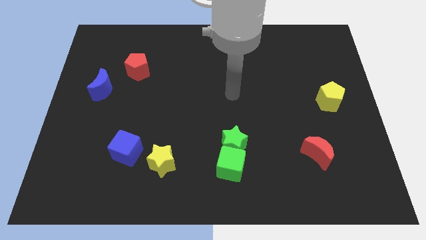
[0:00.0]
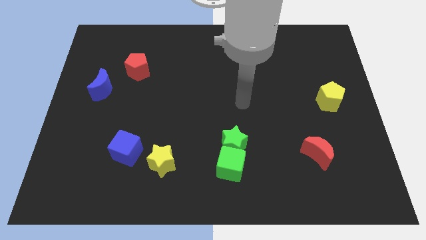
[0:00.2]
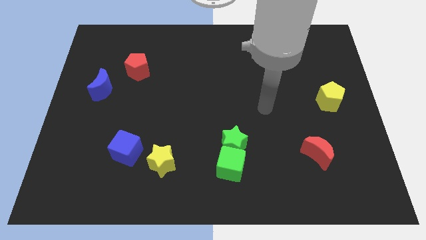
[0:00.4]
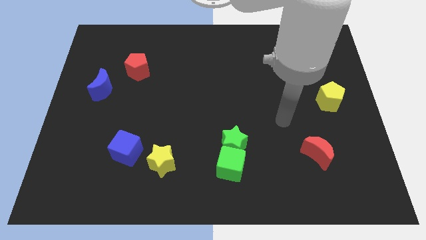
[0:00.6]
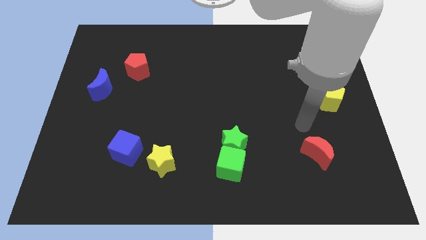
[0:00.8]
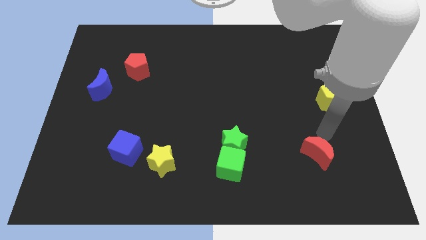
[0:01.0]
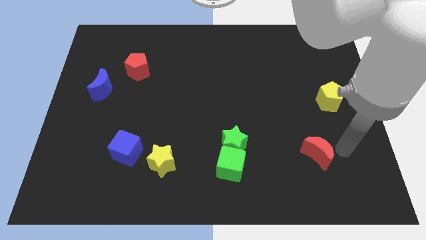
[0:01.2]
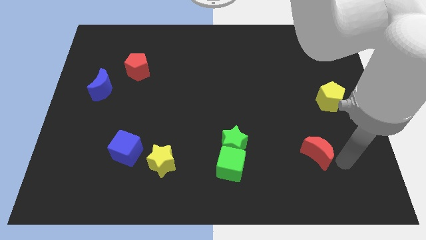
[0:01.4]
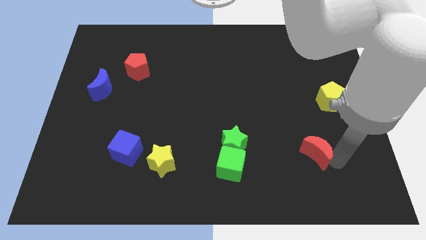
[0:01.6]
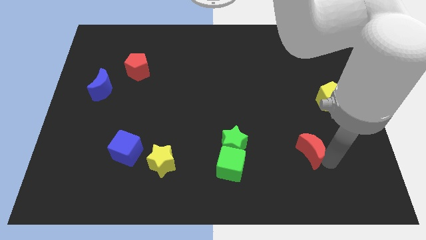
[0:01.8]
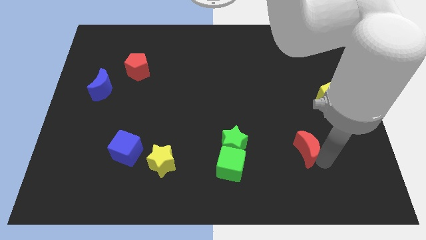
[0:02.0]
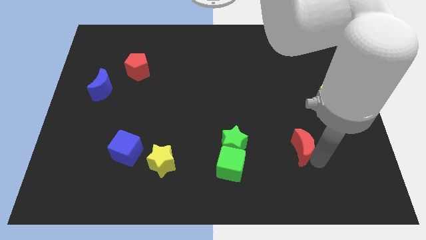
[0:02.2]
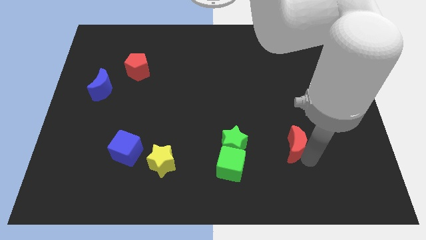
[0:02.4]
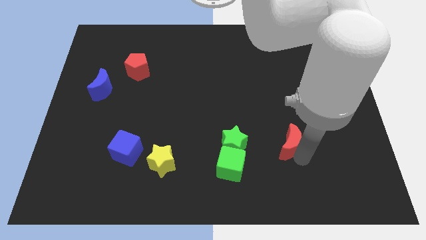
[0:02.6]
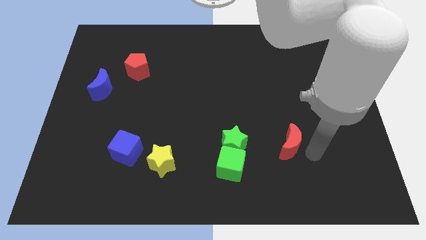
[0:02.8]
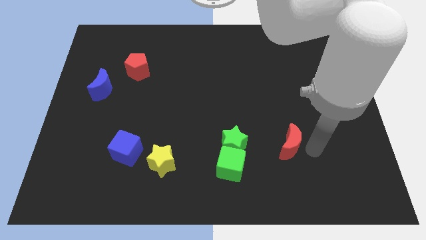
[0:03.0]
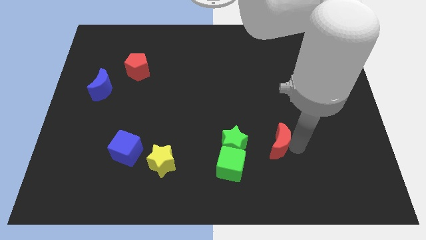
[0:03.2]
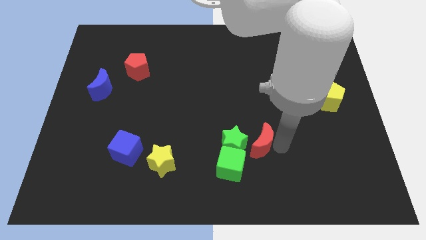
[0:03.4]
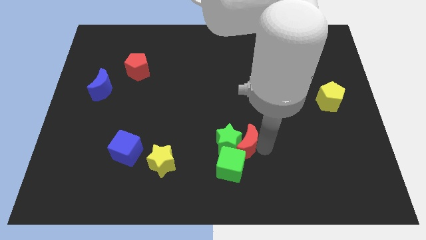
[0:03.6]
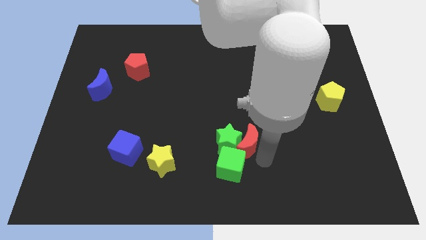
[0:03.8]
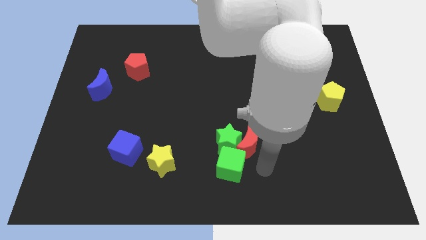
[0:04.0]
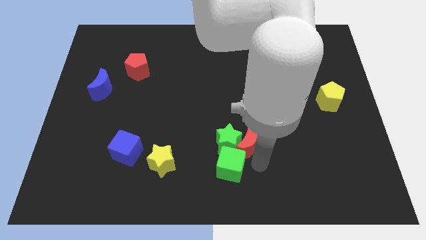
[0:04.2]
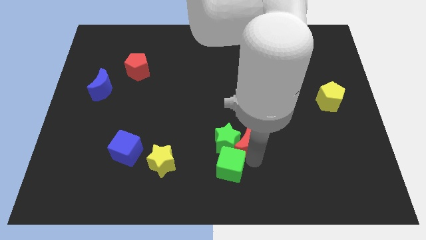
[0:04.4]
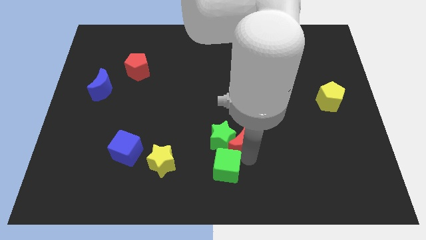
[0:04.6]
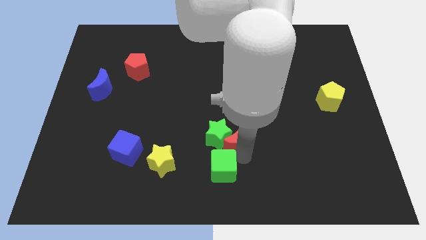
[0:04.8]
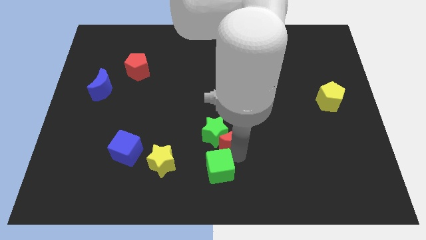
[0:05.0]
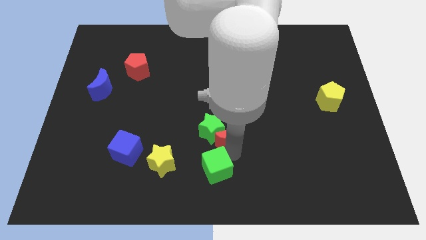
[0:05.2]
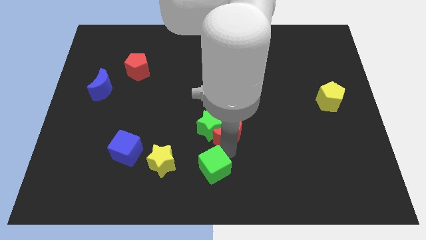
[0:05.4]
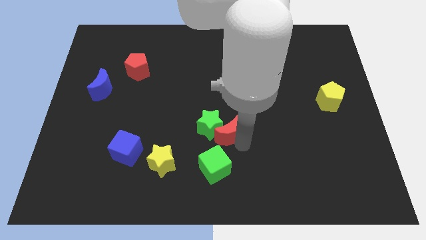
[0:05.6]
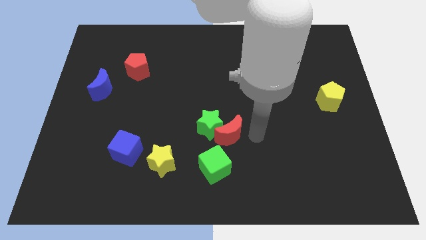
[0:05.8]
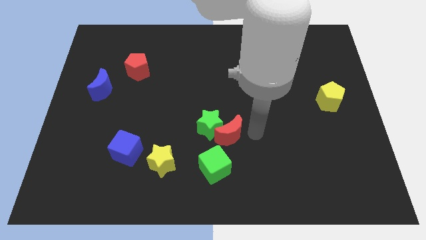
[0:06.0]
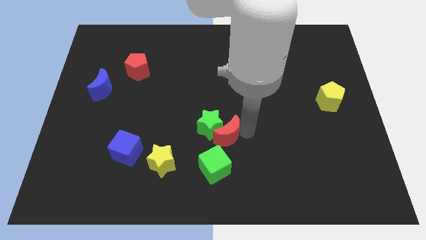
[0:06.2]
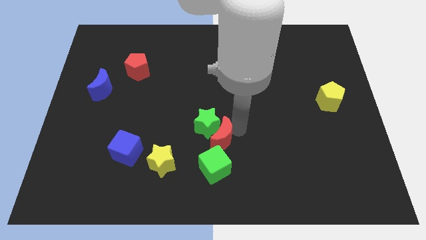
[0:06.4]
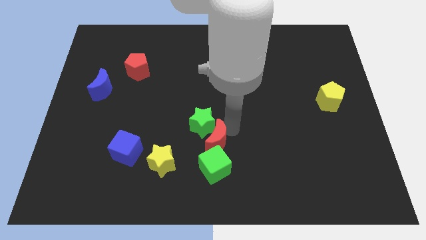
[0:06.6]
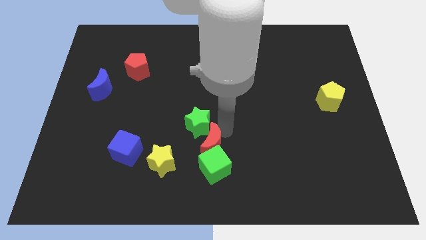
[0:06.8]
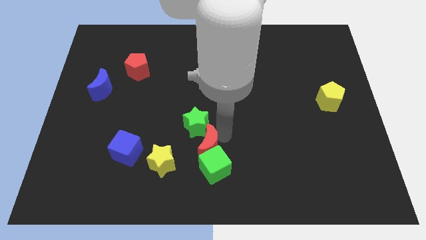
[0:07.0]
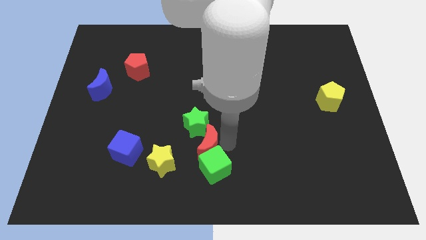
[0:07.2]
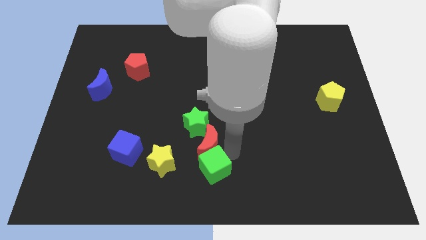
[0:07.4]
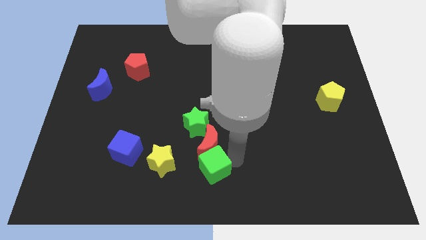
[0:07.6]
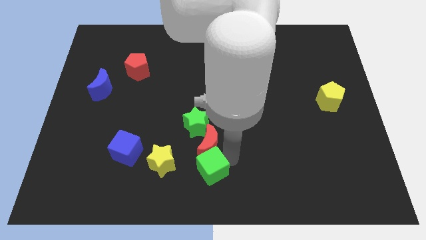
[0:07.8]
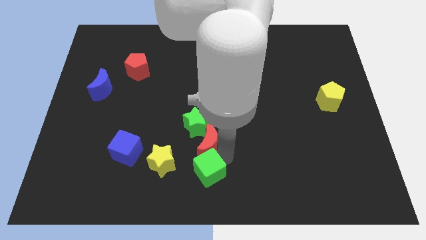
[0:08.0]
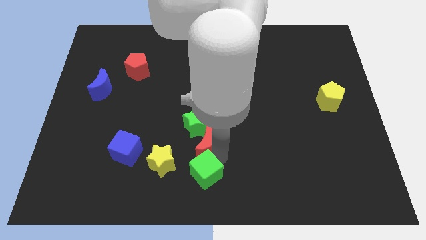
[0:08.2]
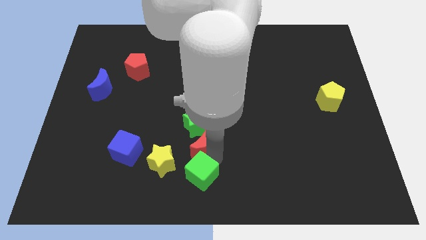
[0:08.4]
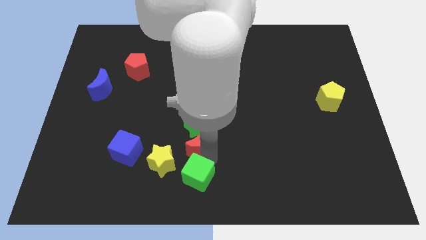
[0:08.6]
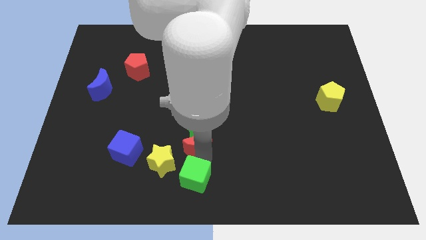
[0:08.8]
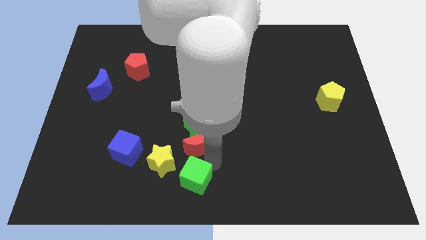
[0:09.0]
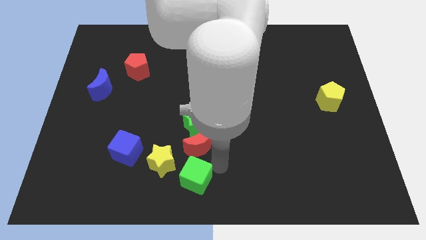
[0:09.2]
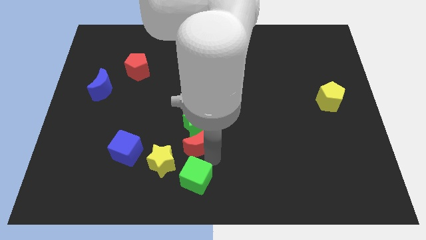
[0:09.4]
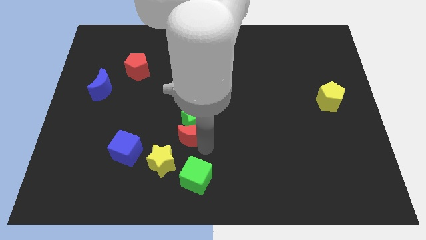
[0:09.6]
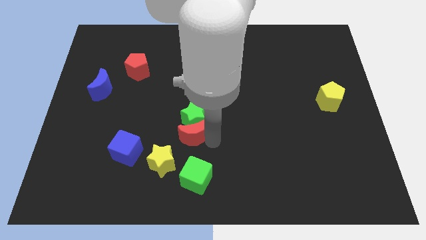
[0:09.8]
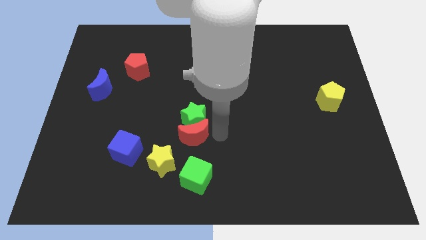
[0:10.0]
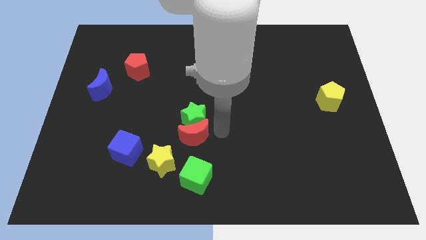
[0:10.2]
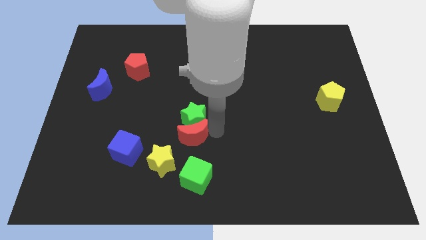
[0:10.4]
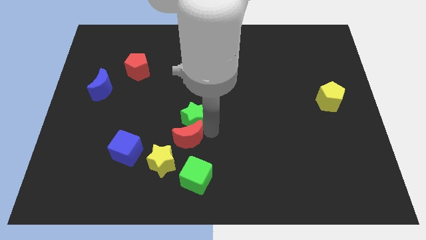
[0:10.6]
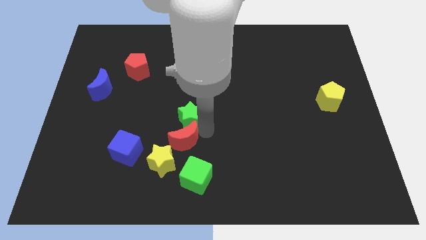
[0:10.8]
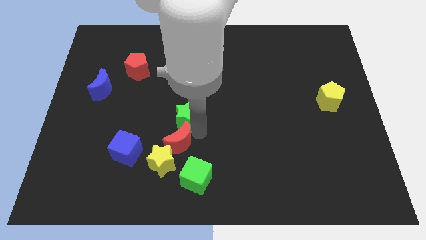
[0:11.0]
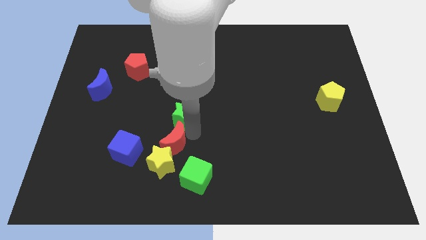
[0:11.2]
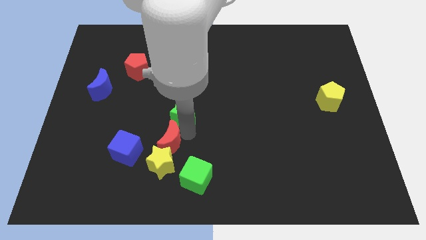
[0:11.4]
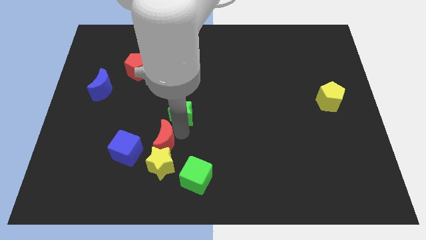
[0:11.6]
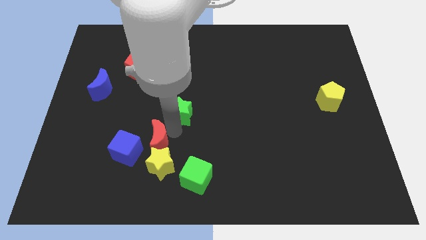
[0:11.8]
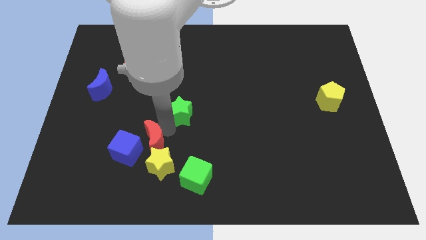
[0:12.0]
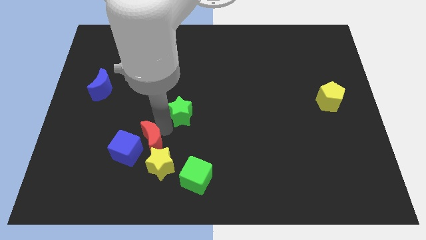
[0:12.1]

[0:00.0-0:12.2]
move the red moon towards the blue cube

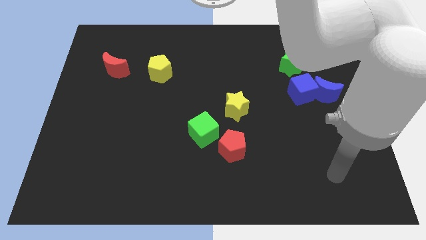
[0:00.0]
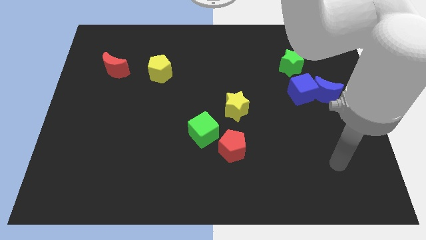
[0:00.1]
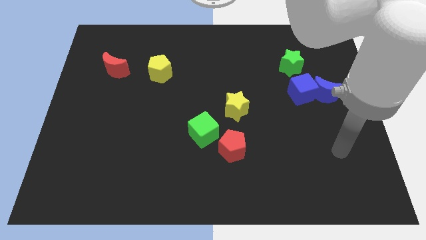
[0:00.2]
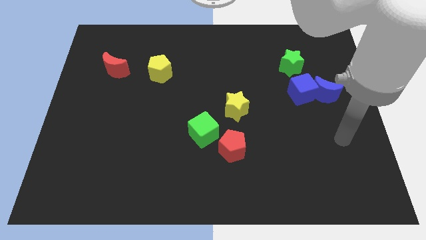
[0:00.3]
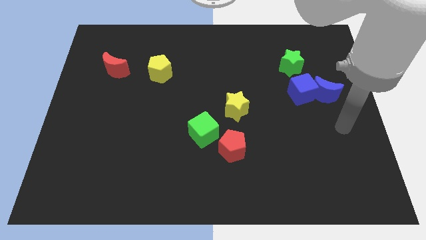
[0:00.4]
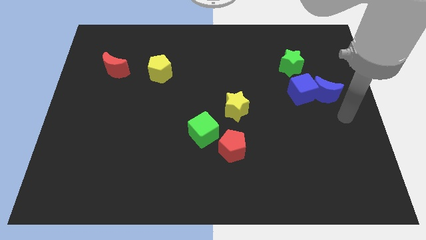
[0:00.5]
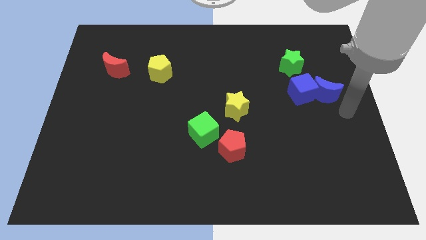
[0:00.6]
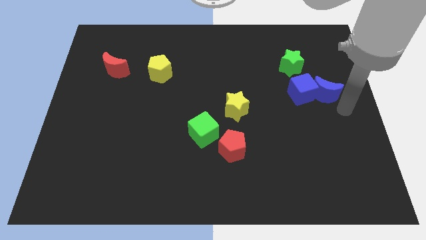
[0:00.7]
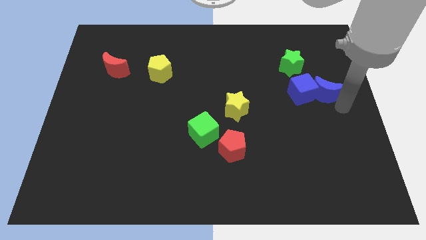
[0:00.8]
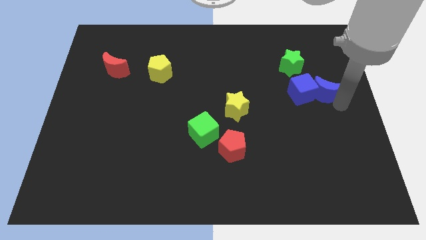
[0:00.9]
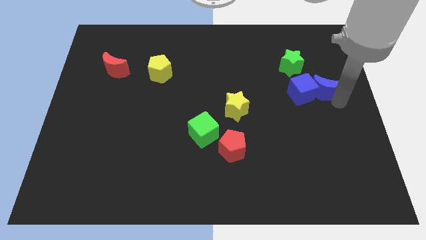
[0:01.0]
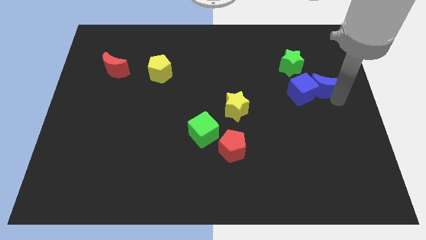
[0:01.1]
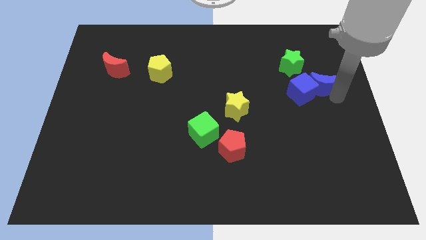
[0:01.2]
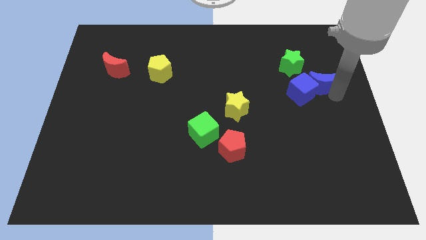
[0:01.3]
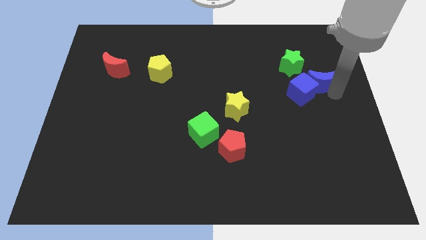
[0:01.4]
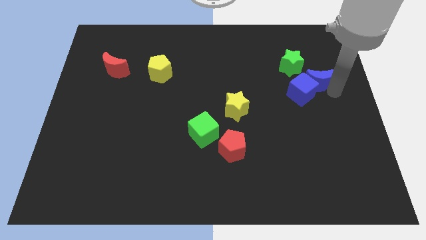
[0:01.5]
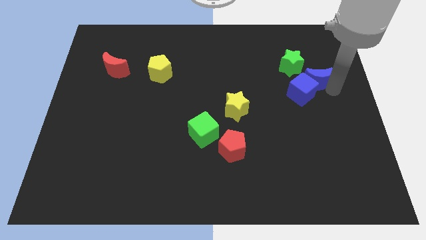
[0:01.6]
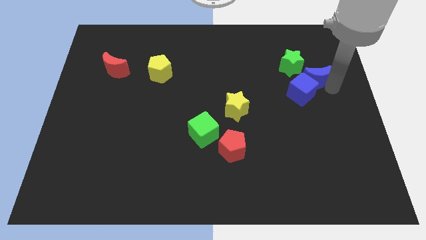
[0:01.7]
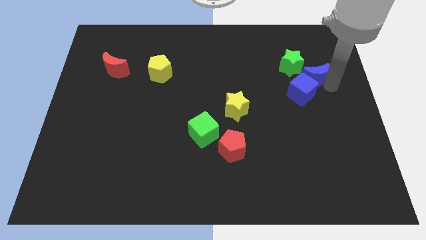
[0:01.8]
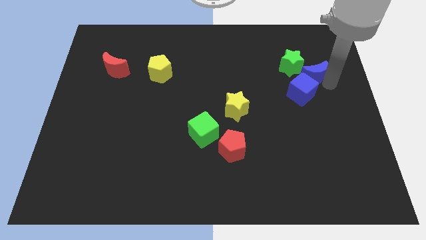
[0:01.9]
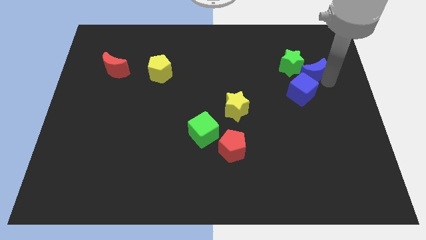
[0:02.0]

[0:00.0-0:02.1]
push the blue moon close to the green star
